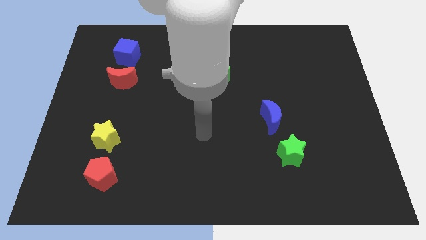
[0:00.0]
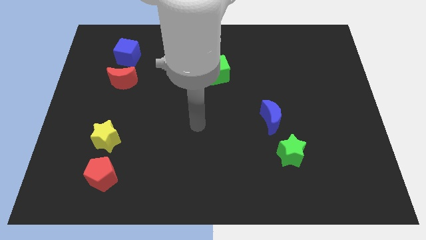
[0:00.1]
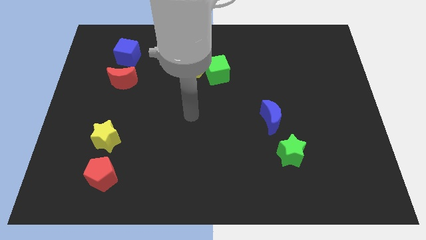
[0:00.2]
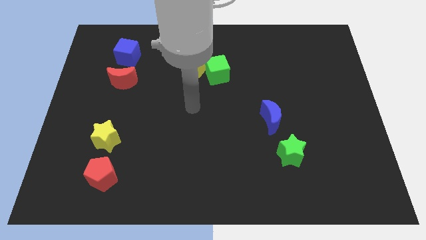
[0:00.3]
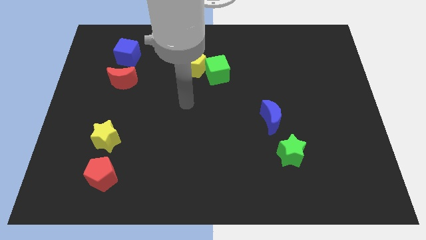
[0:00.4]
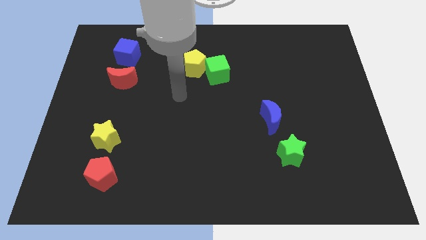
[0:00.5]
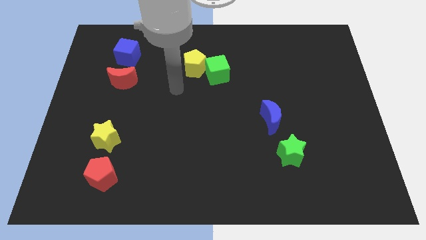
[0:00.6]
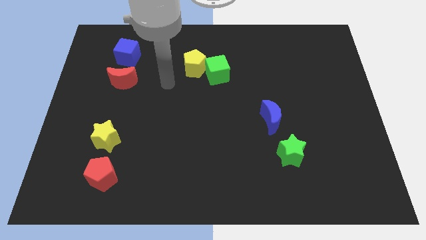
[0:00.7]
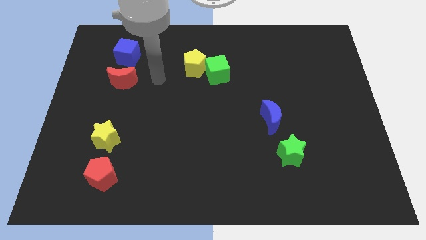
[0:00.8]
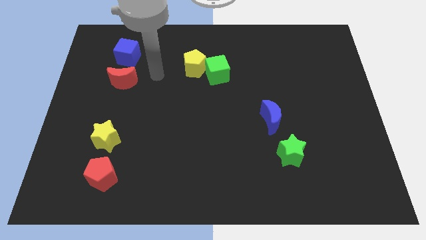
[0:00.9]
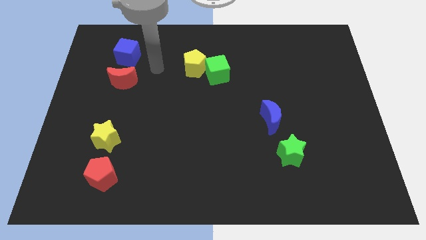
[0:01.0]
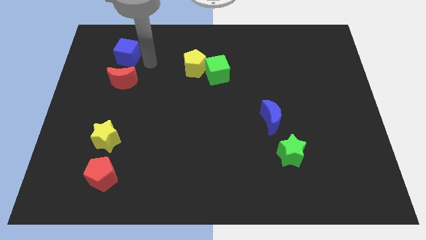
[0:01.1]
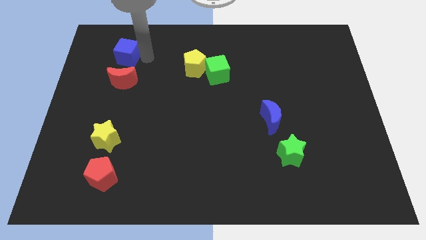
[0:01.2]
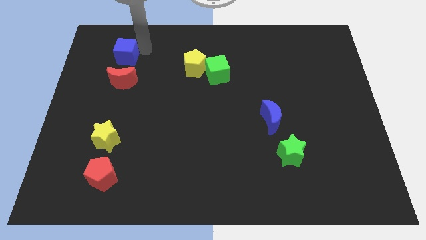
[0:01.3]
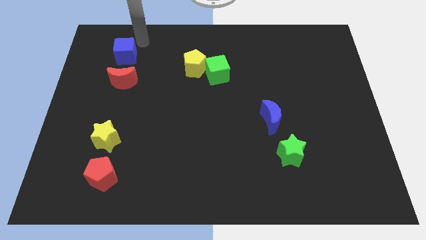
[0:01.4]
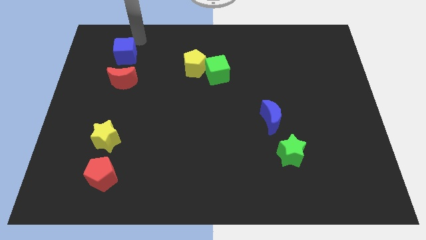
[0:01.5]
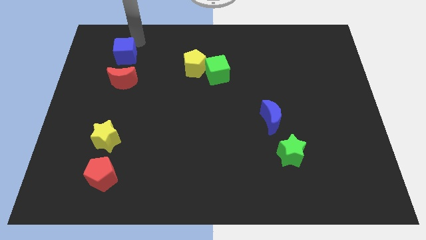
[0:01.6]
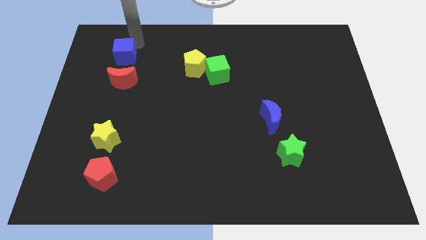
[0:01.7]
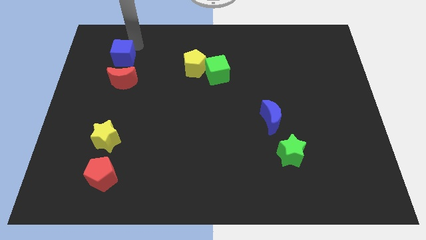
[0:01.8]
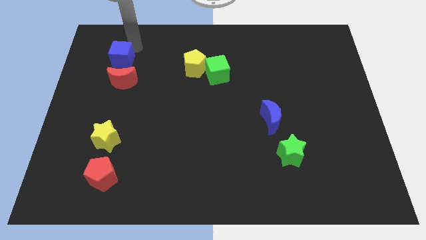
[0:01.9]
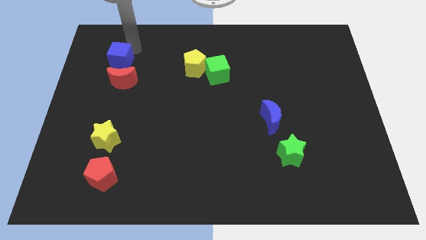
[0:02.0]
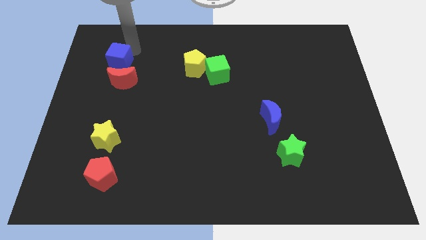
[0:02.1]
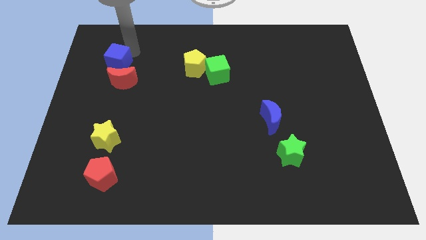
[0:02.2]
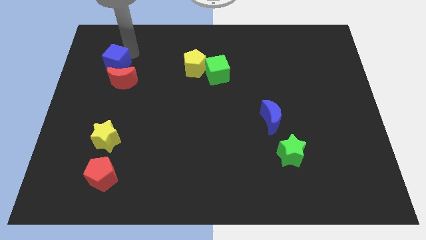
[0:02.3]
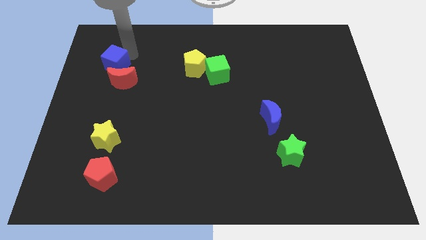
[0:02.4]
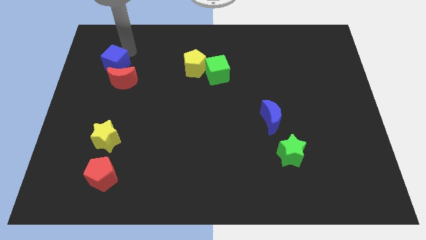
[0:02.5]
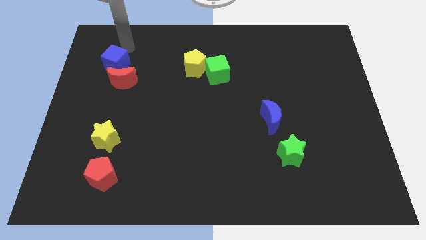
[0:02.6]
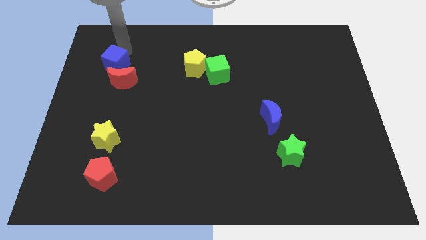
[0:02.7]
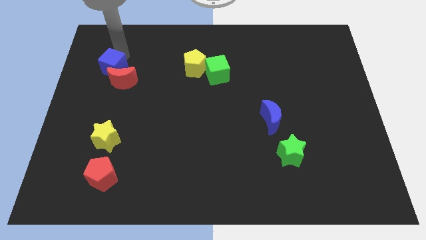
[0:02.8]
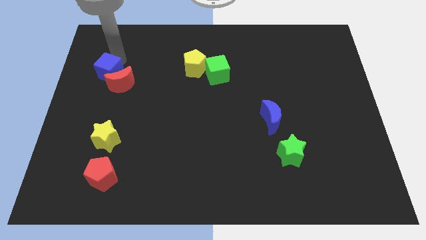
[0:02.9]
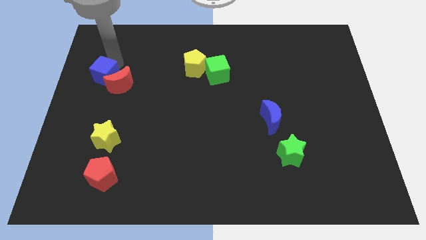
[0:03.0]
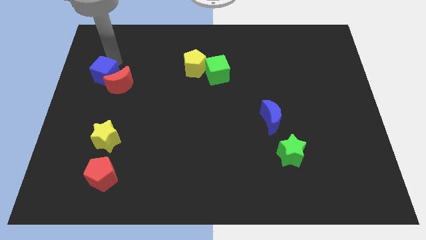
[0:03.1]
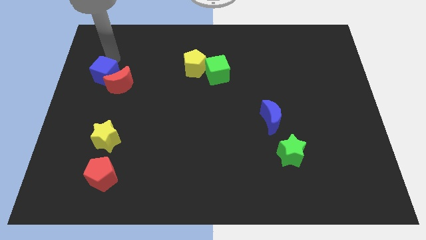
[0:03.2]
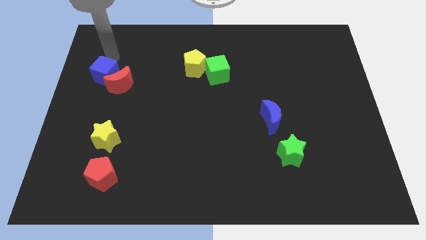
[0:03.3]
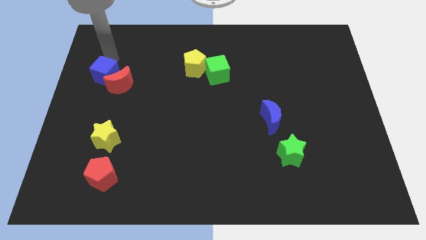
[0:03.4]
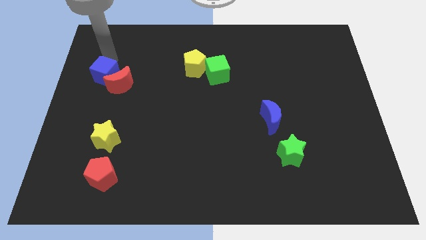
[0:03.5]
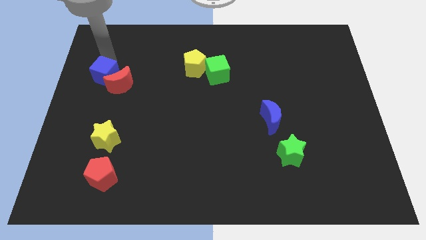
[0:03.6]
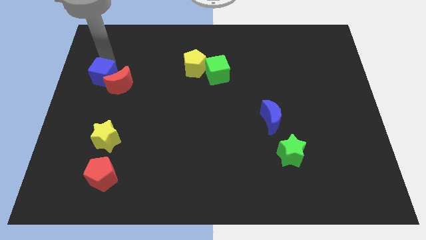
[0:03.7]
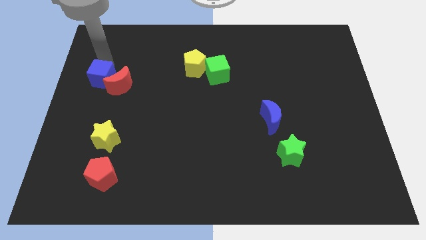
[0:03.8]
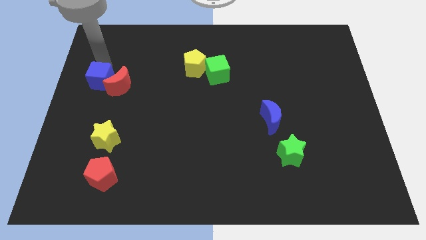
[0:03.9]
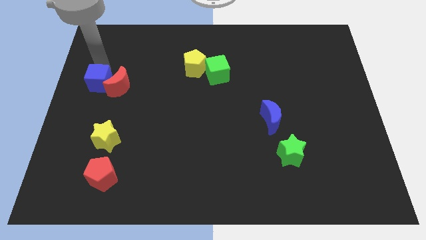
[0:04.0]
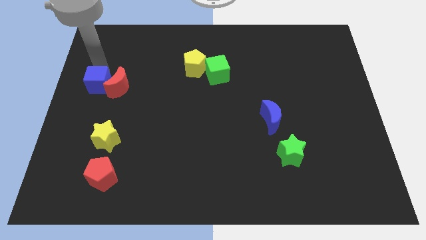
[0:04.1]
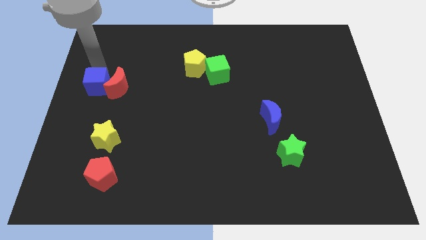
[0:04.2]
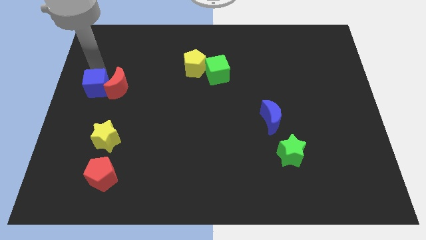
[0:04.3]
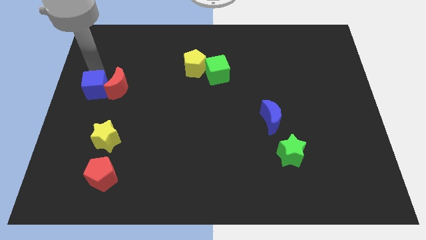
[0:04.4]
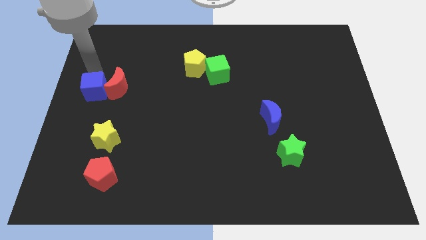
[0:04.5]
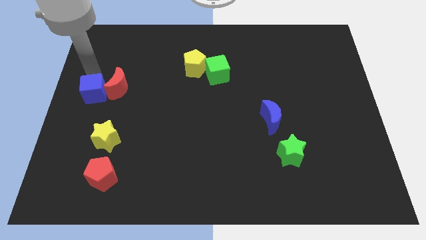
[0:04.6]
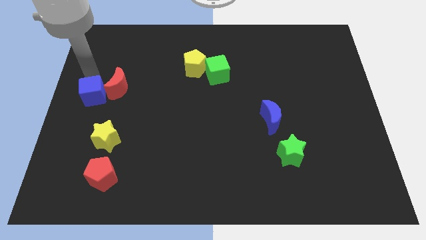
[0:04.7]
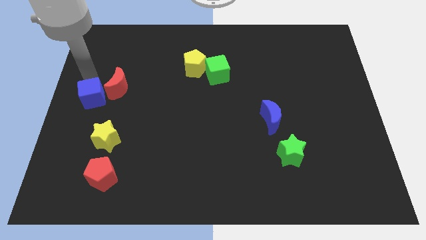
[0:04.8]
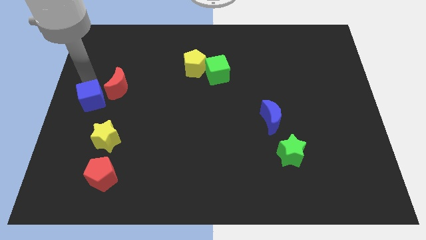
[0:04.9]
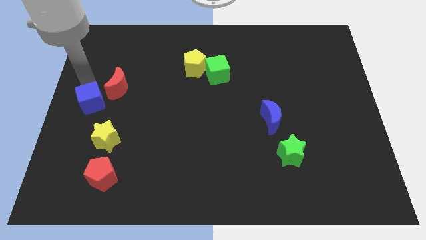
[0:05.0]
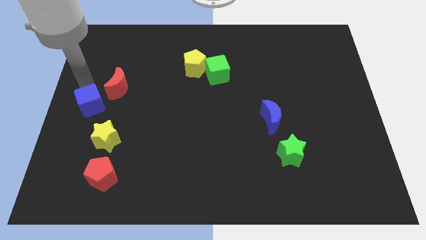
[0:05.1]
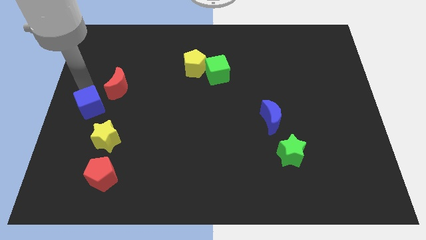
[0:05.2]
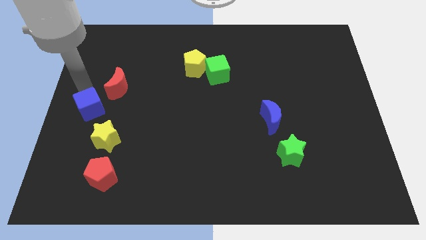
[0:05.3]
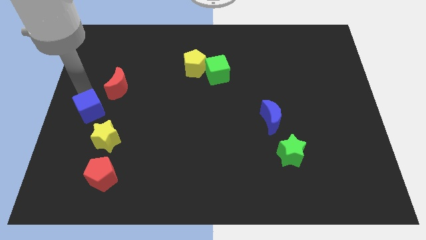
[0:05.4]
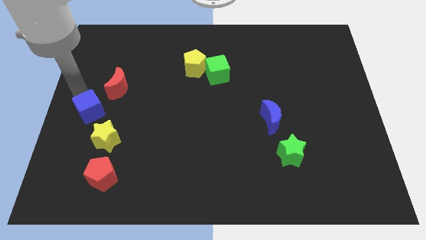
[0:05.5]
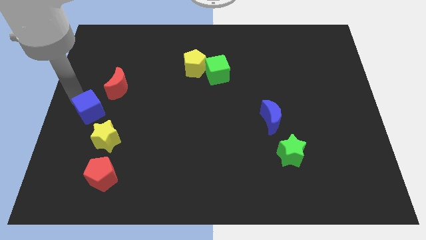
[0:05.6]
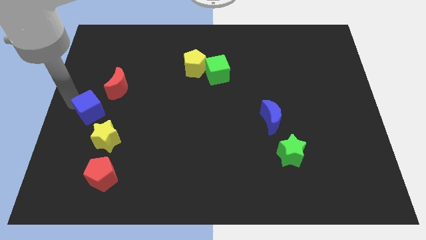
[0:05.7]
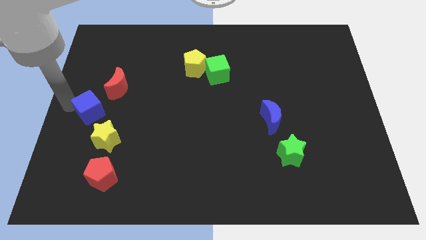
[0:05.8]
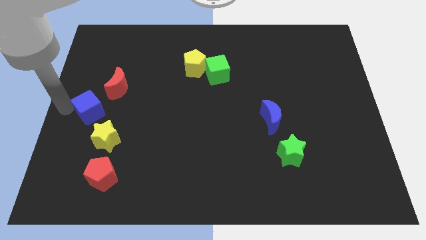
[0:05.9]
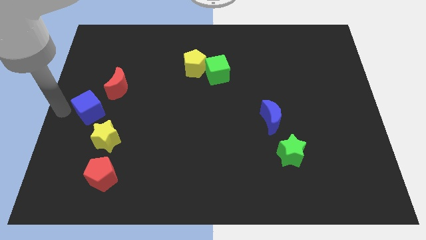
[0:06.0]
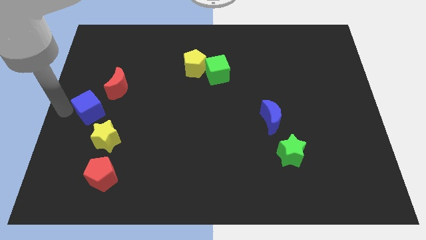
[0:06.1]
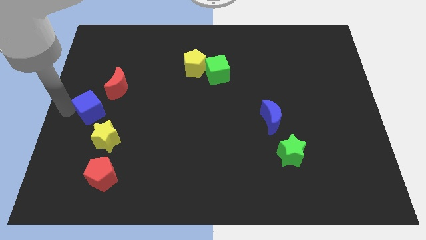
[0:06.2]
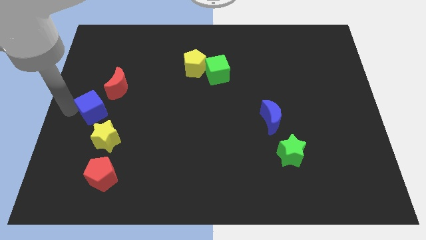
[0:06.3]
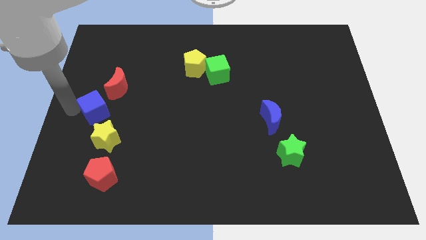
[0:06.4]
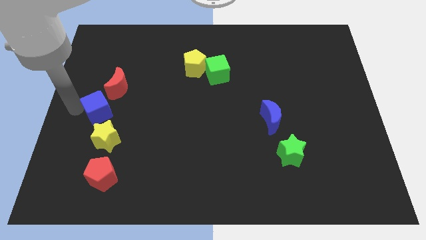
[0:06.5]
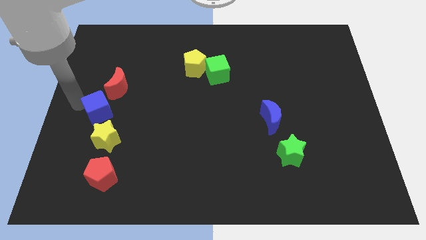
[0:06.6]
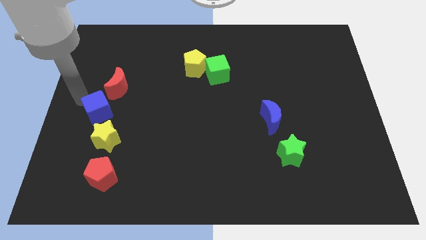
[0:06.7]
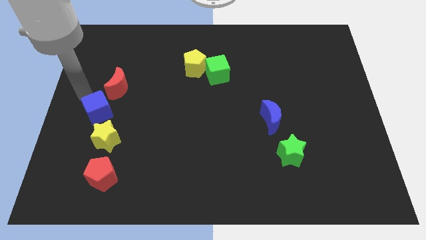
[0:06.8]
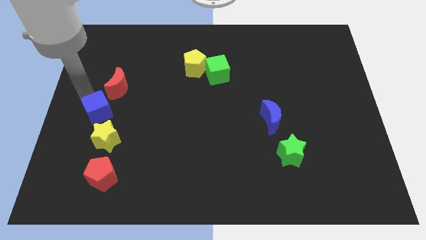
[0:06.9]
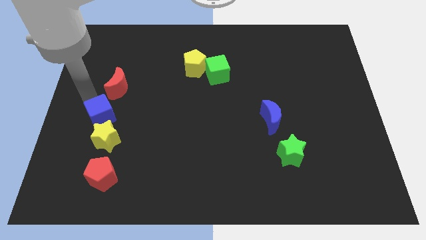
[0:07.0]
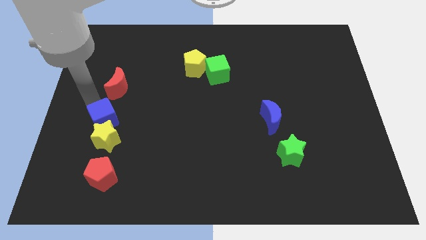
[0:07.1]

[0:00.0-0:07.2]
move the blue cube towards the yellow star
